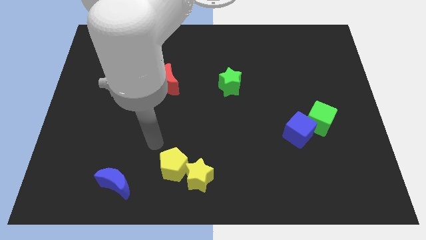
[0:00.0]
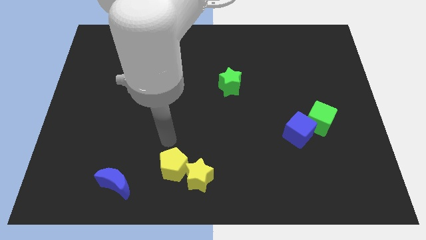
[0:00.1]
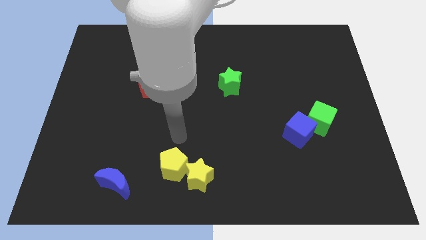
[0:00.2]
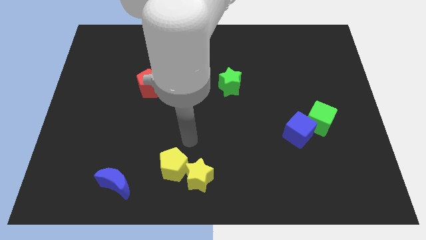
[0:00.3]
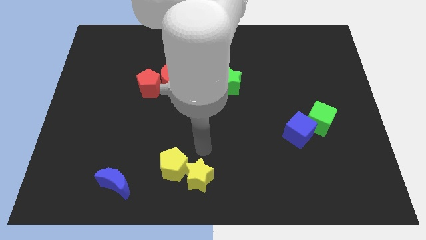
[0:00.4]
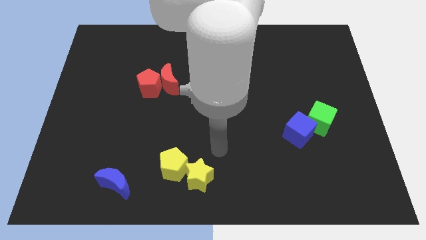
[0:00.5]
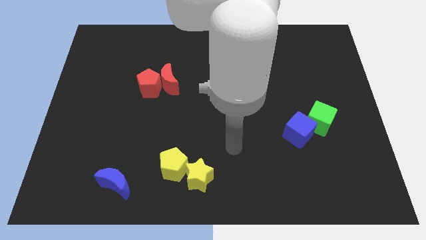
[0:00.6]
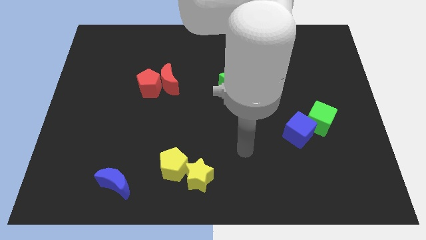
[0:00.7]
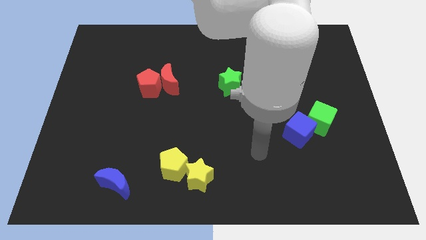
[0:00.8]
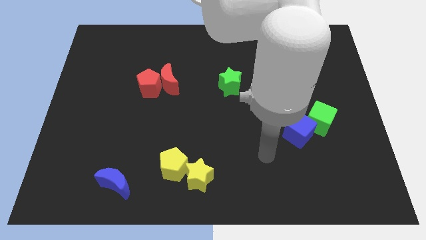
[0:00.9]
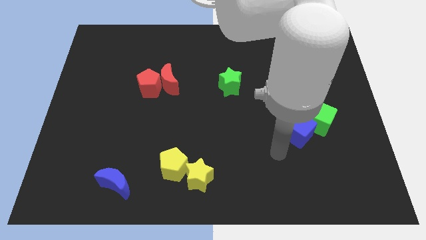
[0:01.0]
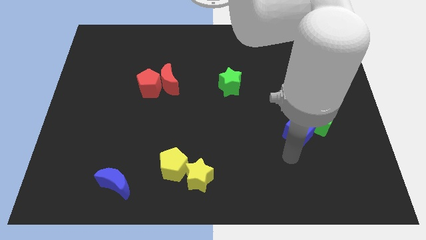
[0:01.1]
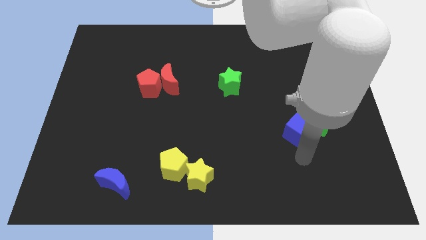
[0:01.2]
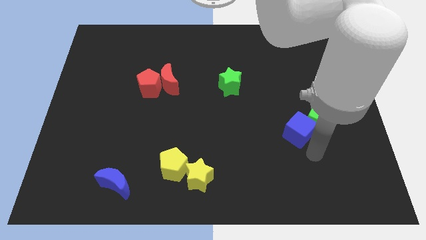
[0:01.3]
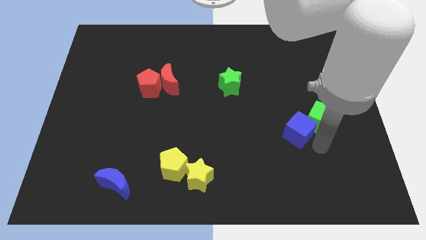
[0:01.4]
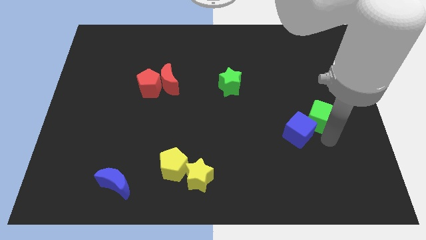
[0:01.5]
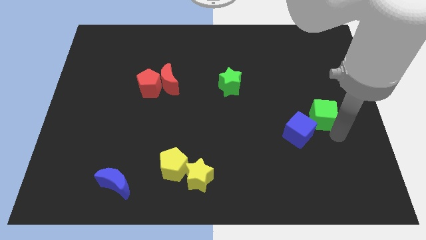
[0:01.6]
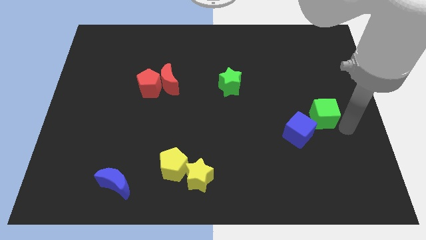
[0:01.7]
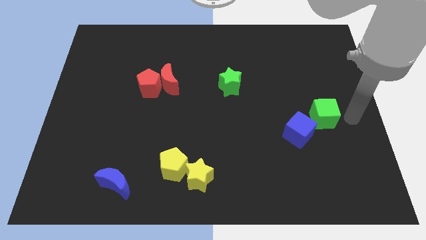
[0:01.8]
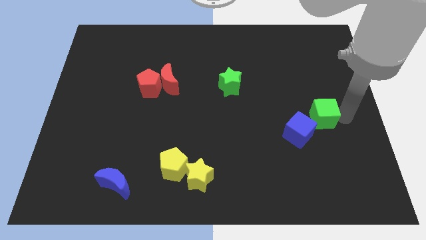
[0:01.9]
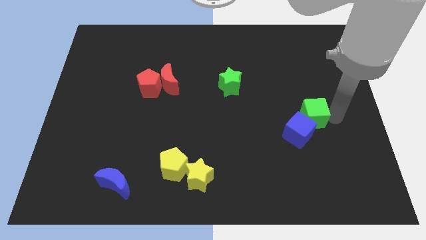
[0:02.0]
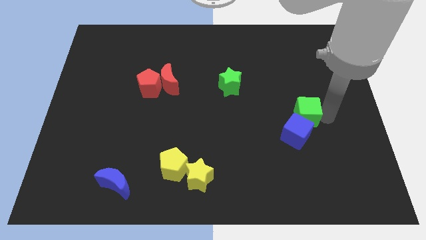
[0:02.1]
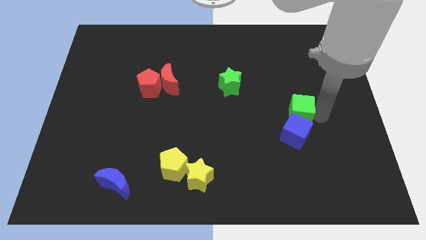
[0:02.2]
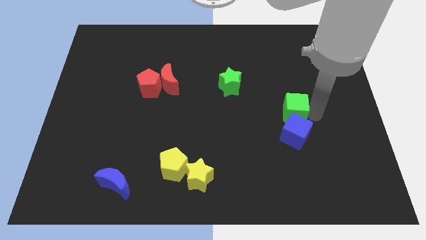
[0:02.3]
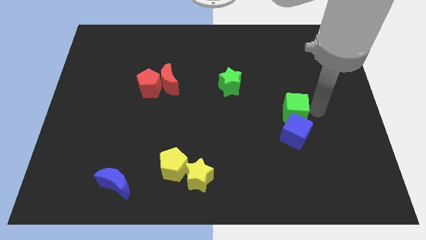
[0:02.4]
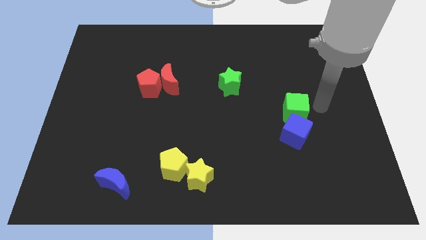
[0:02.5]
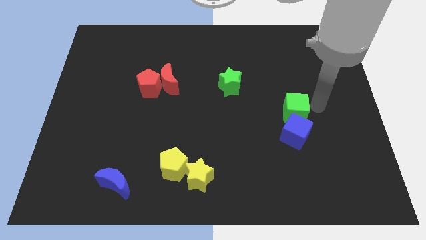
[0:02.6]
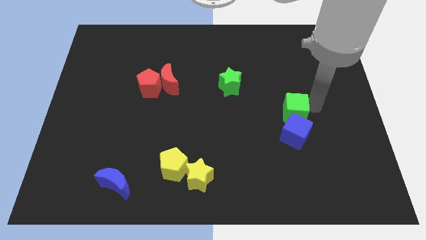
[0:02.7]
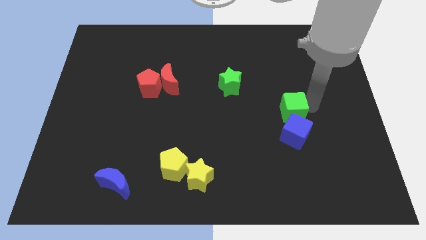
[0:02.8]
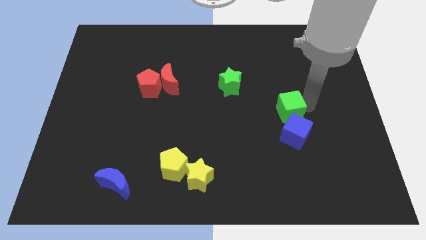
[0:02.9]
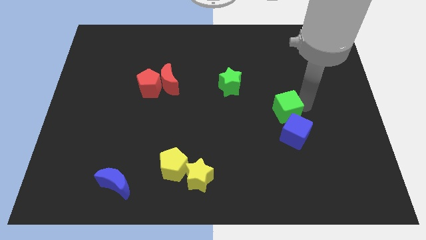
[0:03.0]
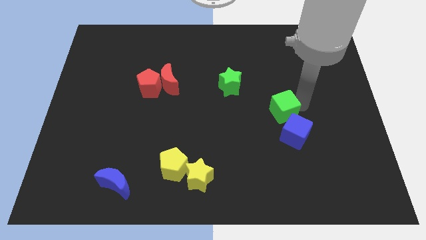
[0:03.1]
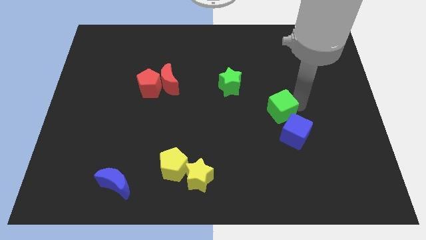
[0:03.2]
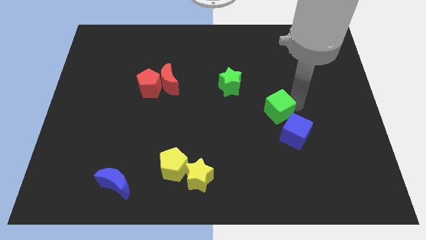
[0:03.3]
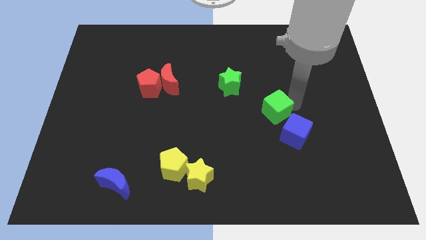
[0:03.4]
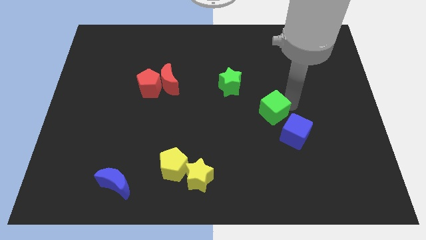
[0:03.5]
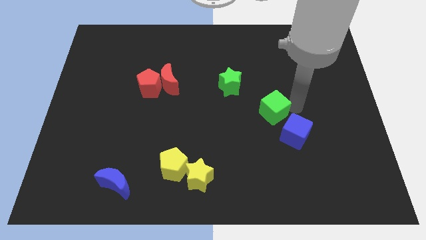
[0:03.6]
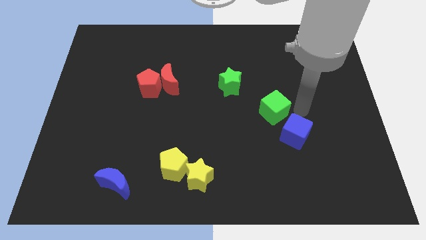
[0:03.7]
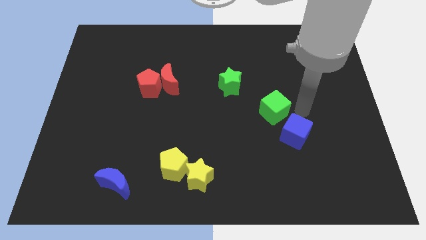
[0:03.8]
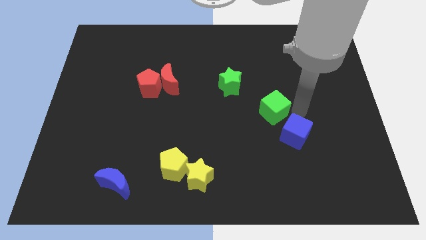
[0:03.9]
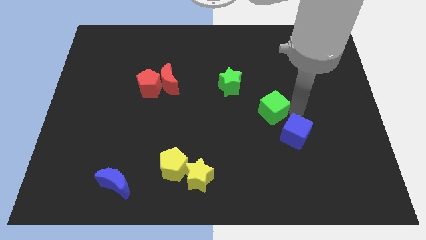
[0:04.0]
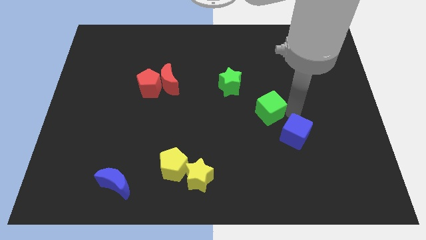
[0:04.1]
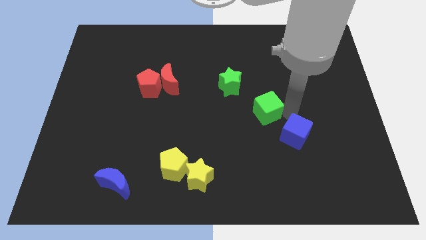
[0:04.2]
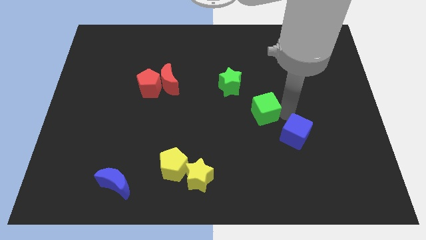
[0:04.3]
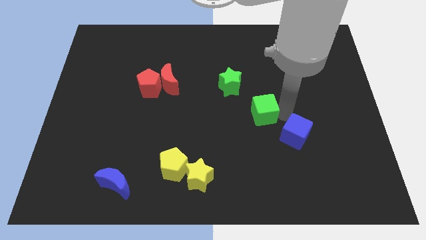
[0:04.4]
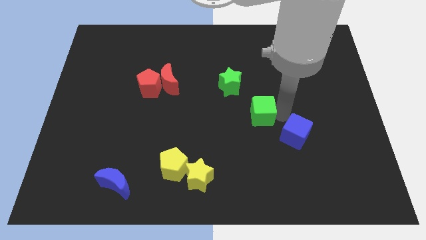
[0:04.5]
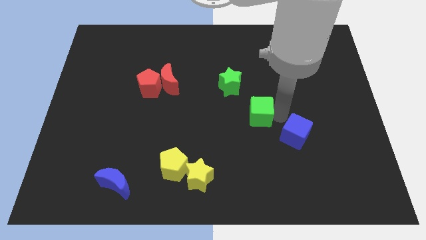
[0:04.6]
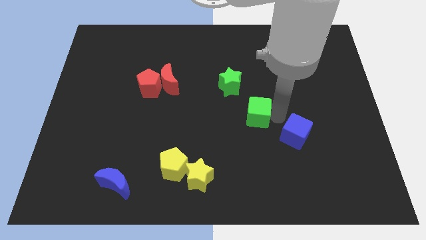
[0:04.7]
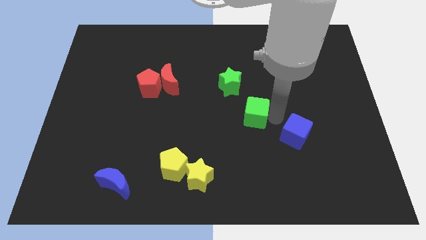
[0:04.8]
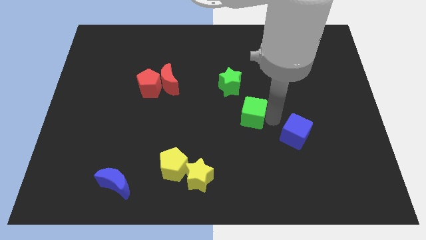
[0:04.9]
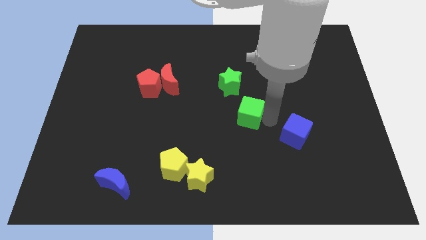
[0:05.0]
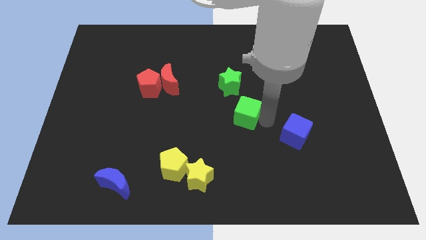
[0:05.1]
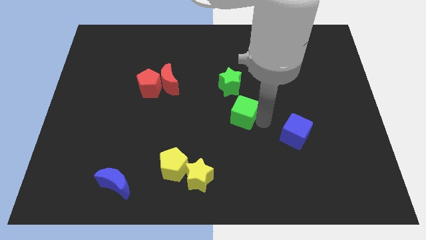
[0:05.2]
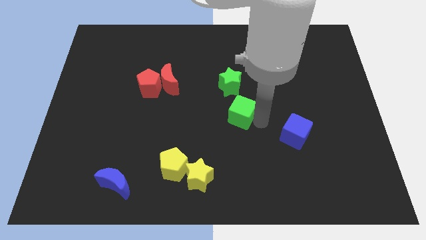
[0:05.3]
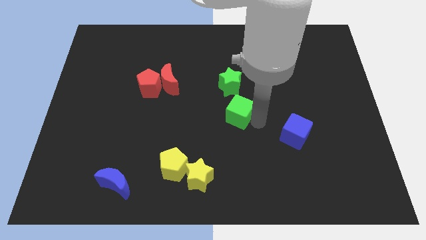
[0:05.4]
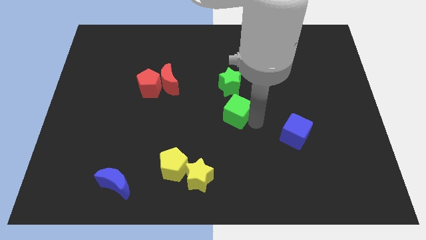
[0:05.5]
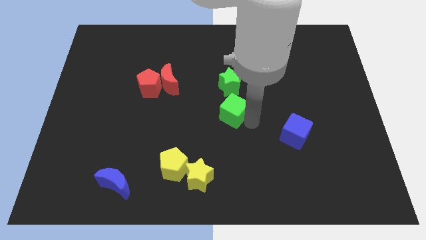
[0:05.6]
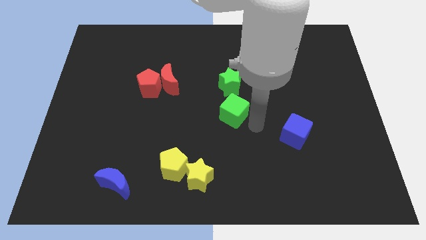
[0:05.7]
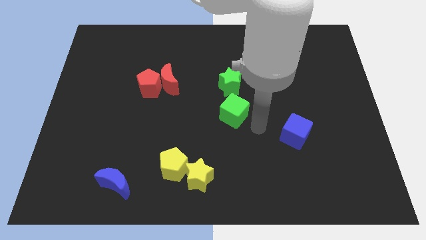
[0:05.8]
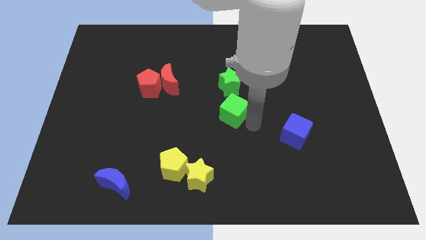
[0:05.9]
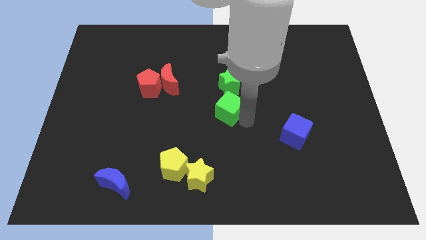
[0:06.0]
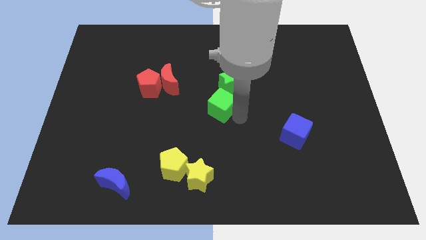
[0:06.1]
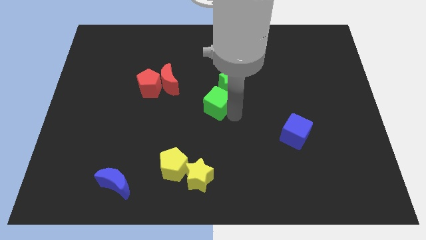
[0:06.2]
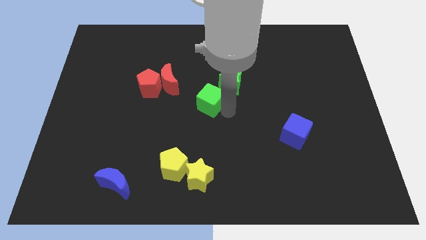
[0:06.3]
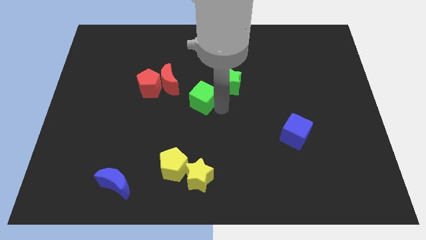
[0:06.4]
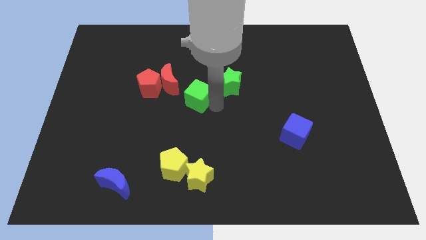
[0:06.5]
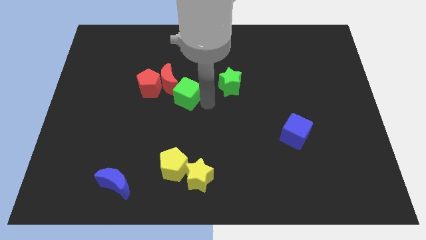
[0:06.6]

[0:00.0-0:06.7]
slide the green cube close to the red moon

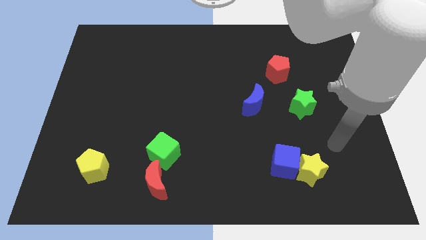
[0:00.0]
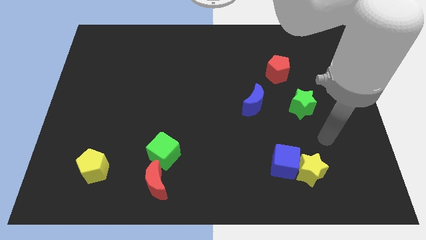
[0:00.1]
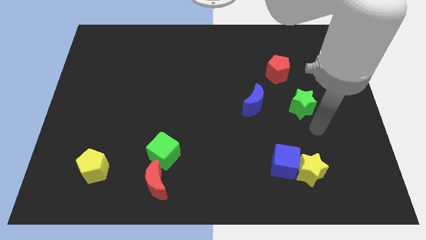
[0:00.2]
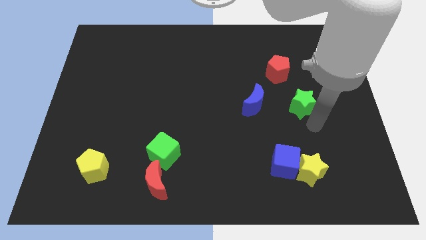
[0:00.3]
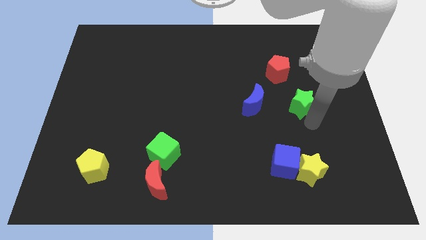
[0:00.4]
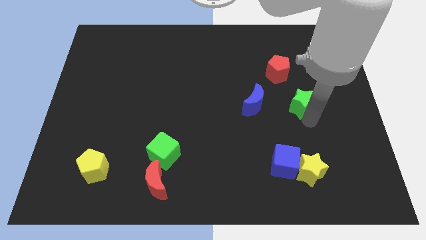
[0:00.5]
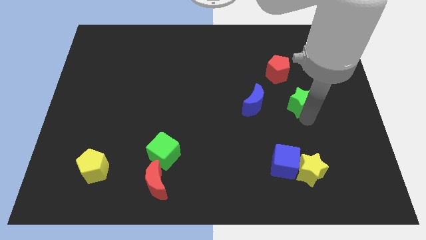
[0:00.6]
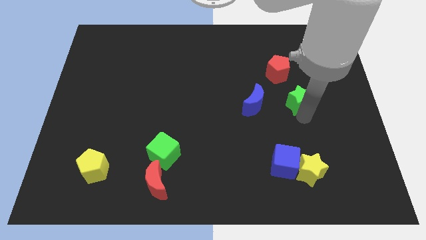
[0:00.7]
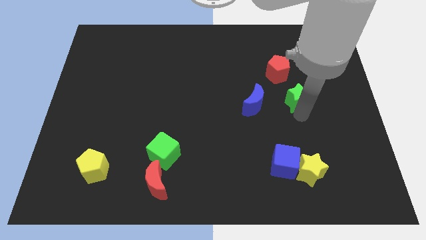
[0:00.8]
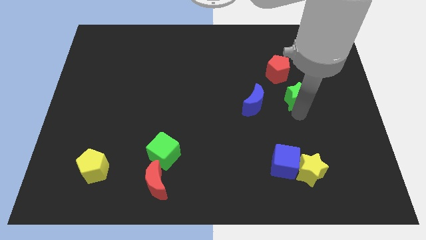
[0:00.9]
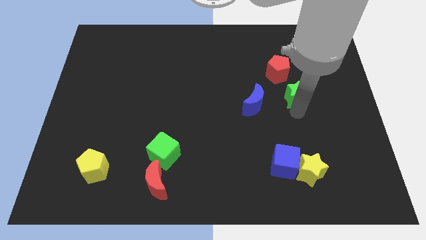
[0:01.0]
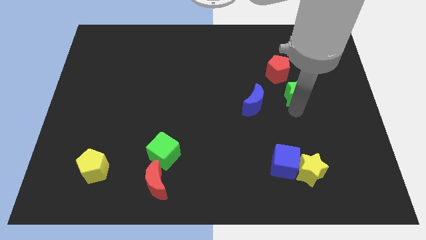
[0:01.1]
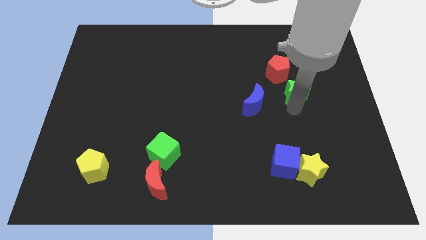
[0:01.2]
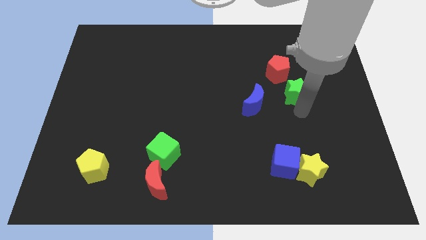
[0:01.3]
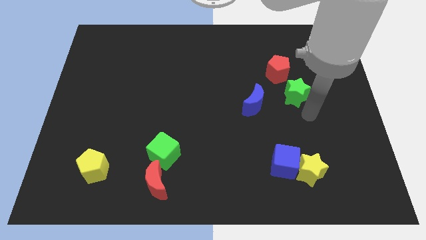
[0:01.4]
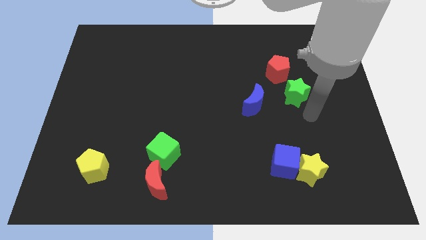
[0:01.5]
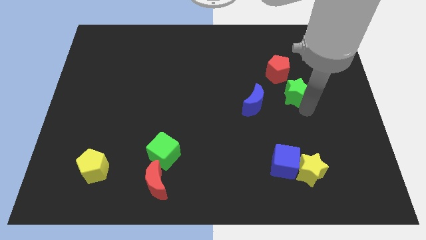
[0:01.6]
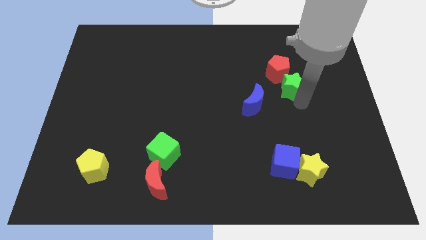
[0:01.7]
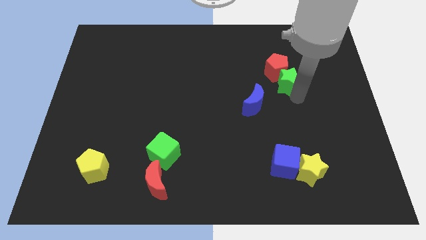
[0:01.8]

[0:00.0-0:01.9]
slide the green star next to the red pentagon
